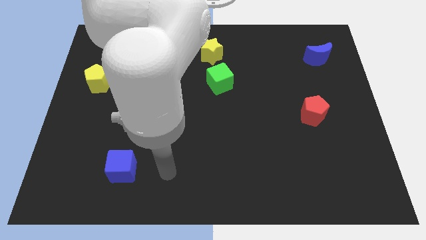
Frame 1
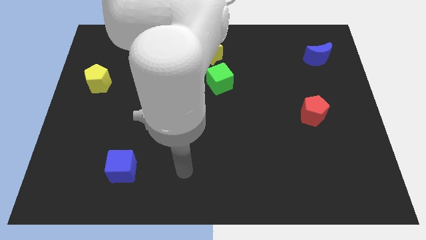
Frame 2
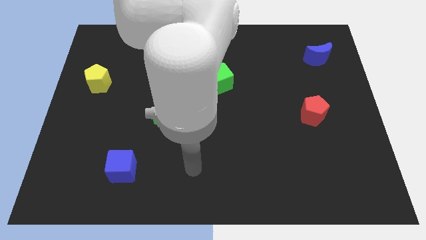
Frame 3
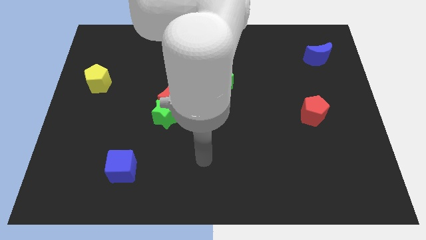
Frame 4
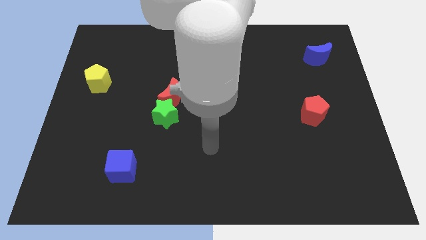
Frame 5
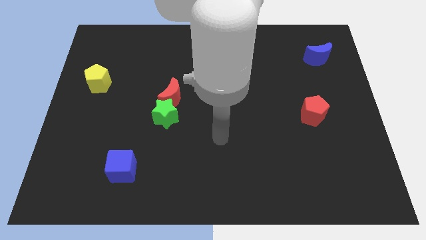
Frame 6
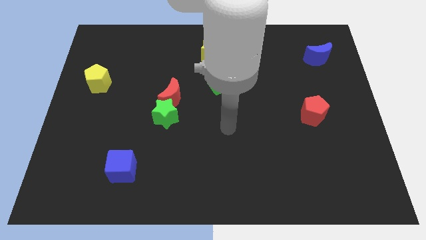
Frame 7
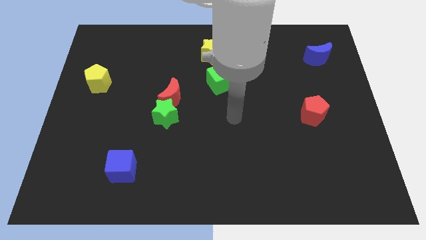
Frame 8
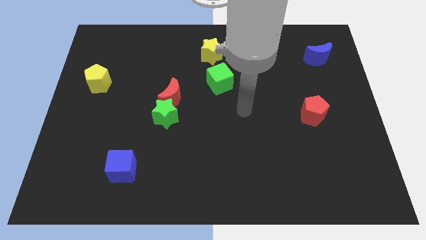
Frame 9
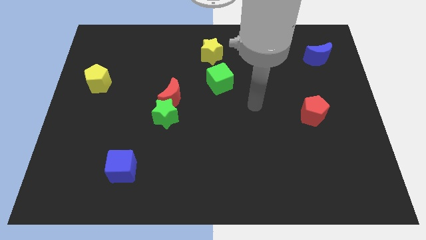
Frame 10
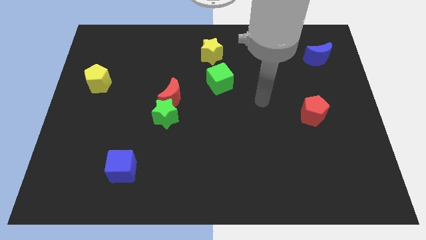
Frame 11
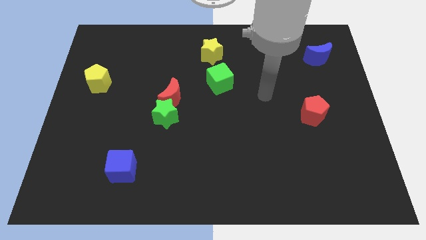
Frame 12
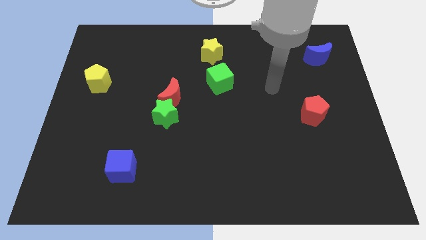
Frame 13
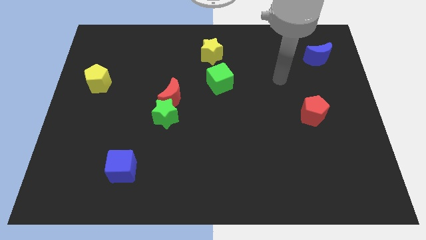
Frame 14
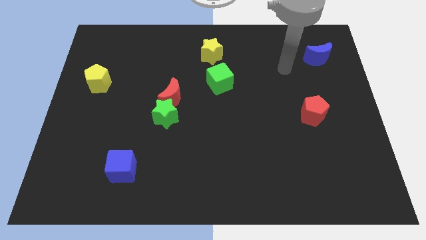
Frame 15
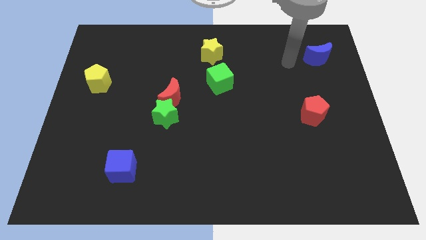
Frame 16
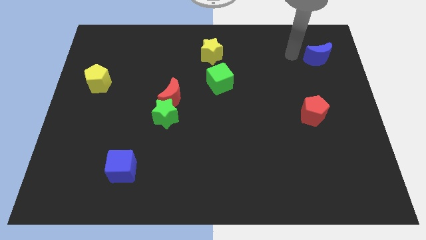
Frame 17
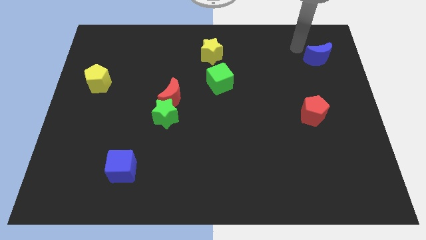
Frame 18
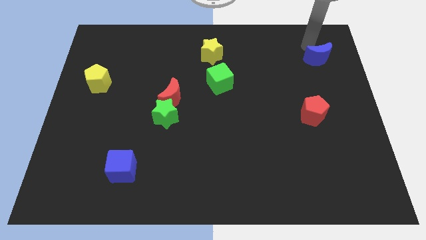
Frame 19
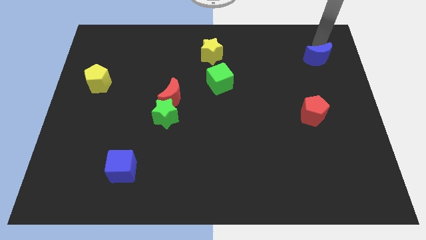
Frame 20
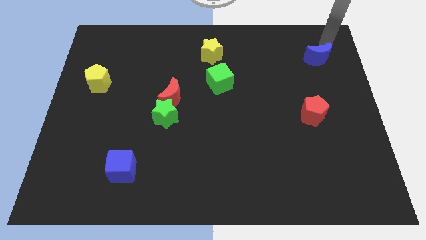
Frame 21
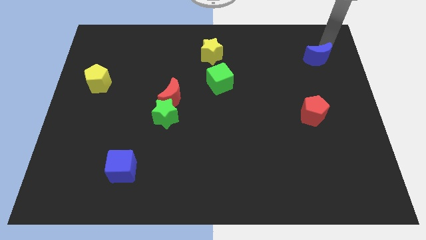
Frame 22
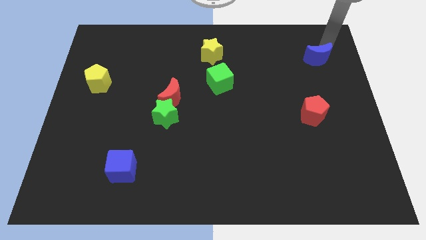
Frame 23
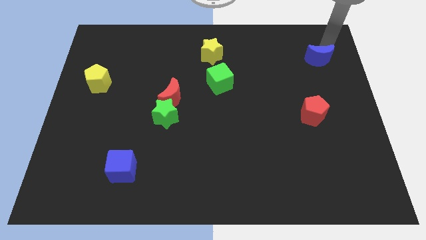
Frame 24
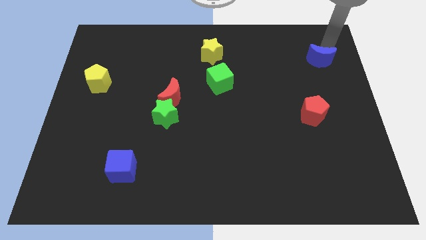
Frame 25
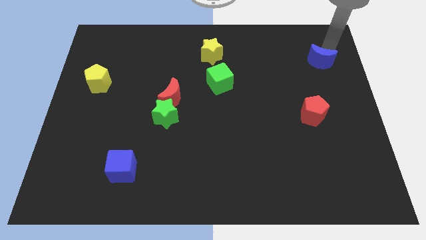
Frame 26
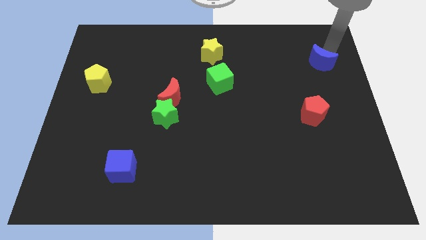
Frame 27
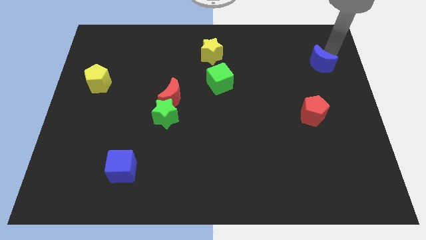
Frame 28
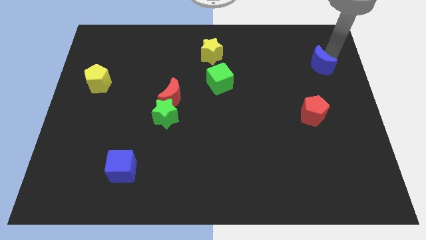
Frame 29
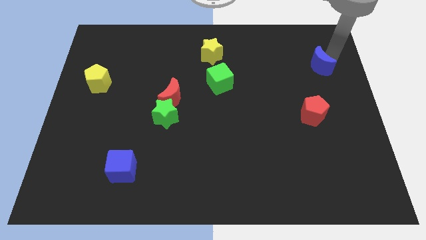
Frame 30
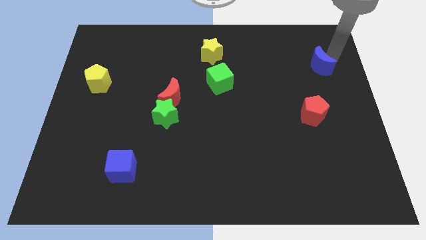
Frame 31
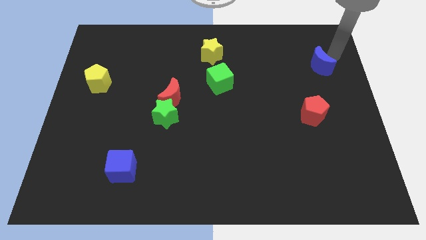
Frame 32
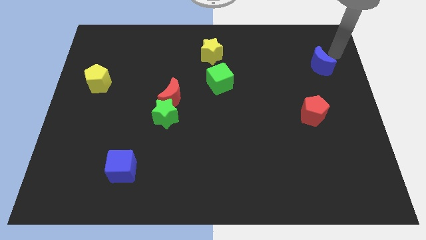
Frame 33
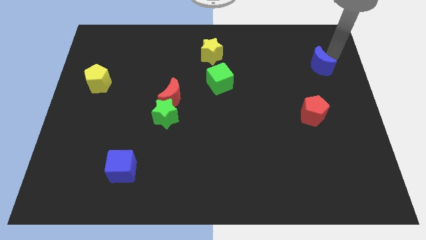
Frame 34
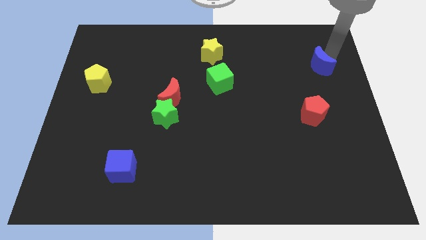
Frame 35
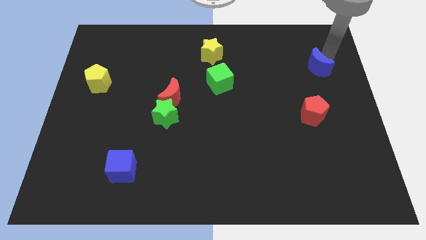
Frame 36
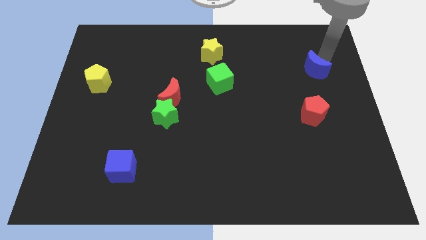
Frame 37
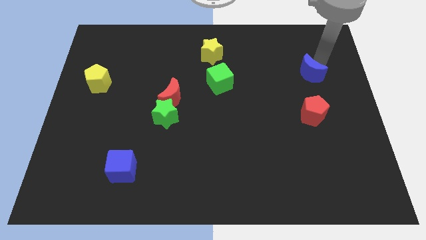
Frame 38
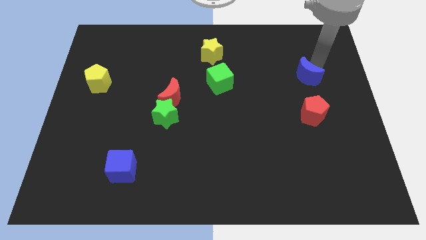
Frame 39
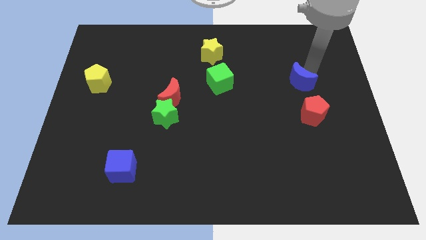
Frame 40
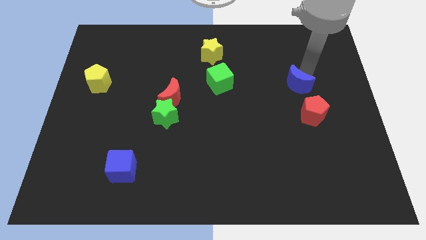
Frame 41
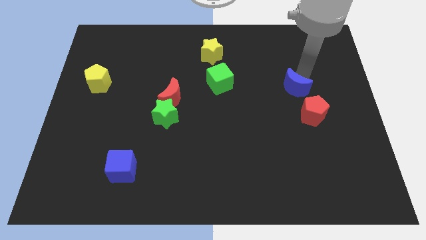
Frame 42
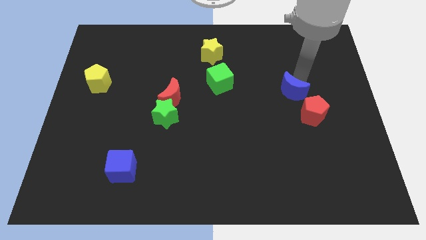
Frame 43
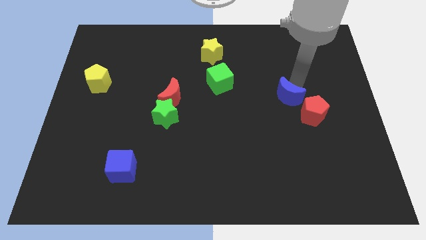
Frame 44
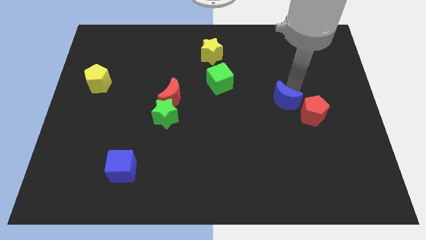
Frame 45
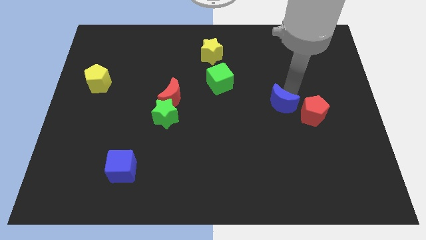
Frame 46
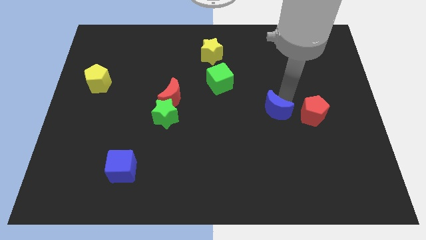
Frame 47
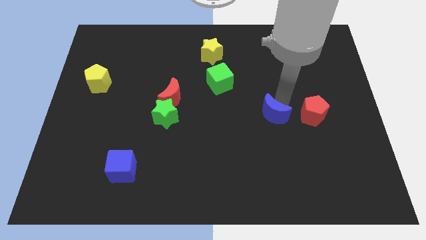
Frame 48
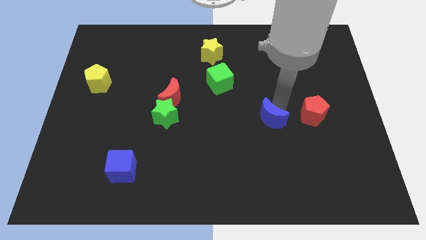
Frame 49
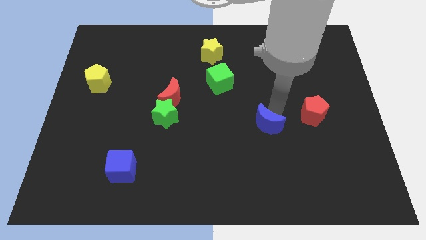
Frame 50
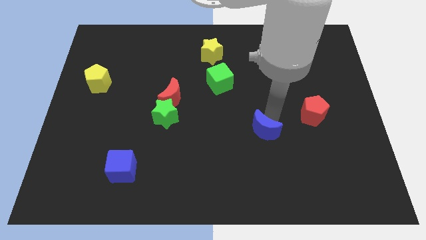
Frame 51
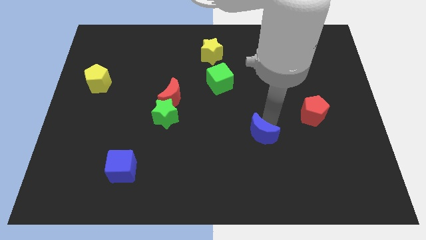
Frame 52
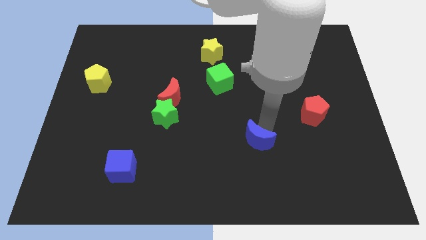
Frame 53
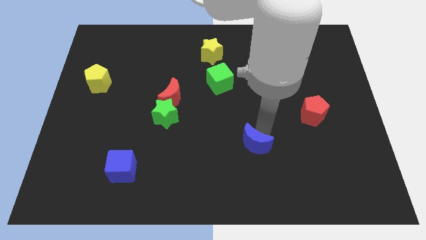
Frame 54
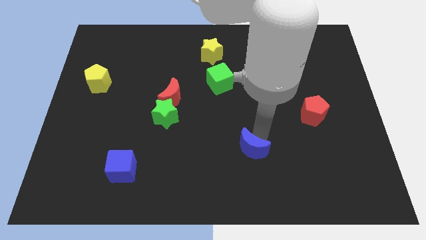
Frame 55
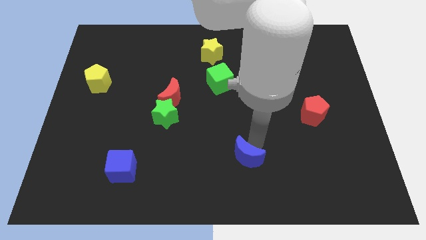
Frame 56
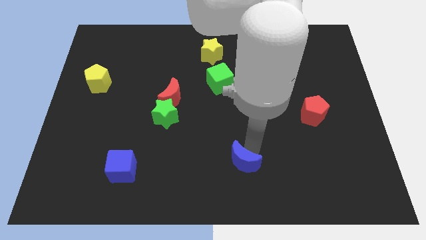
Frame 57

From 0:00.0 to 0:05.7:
put the blue moon to the bottom side
